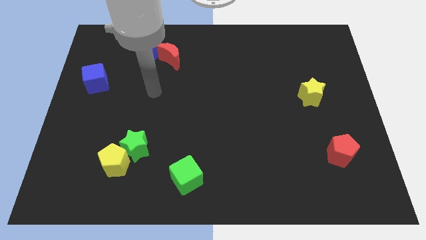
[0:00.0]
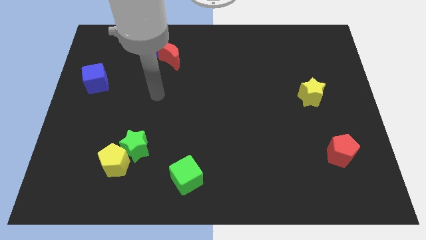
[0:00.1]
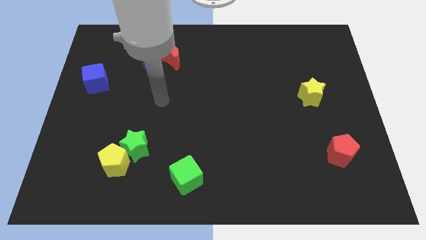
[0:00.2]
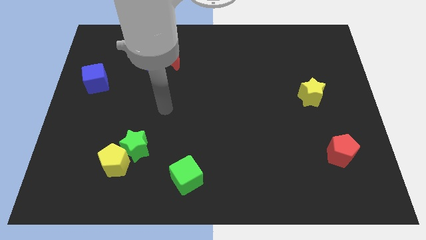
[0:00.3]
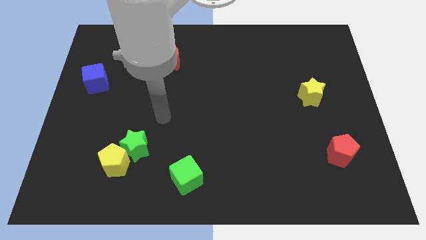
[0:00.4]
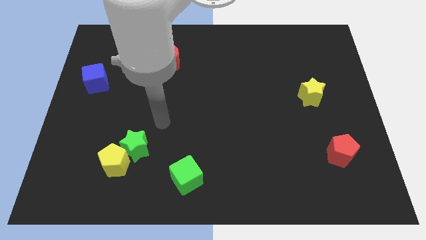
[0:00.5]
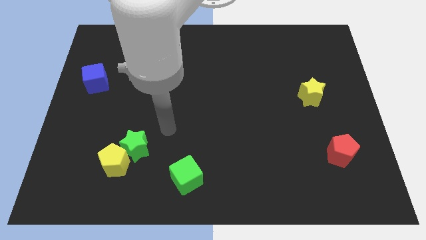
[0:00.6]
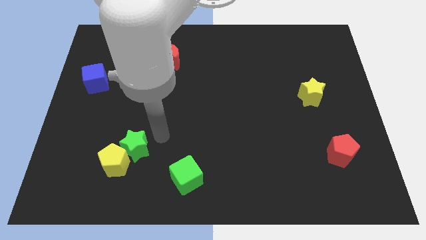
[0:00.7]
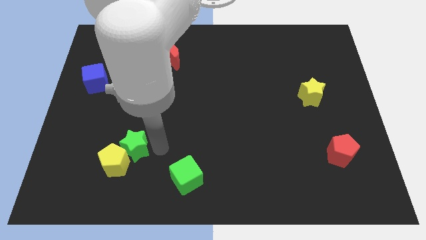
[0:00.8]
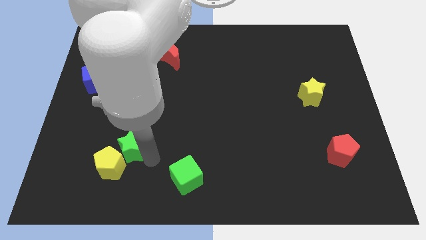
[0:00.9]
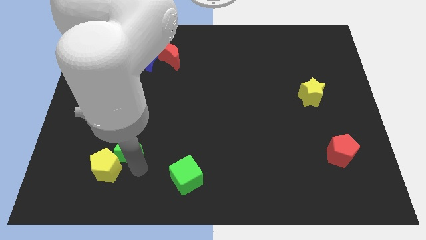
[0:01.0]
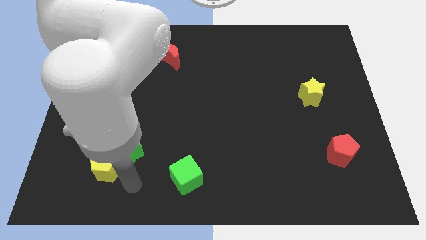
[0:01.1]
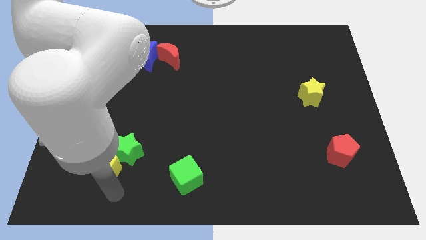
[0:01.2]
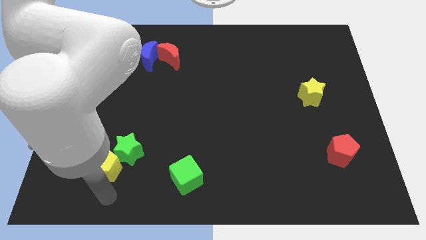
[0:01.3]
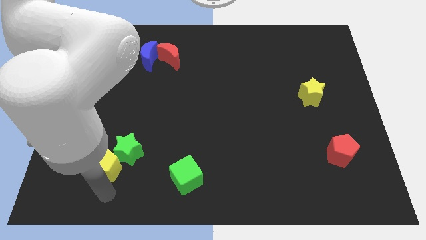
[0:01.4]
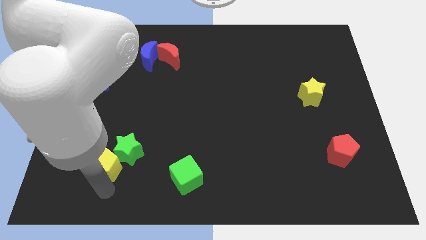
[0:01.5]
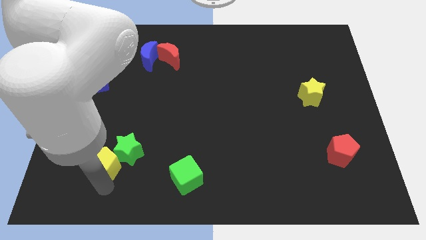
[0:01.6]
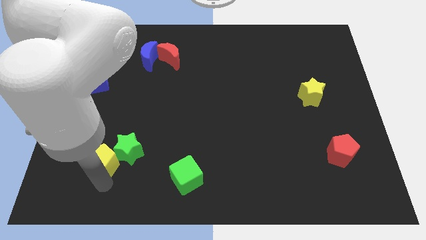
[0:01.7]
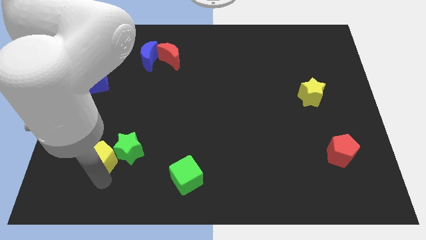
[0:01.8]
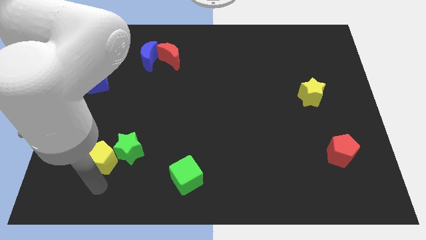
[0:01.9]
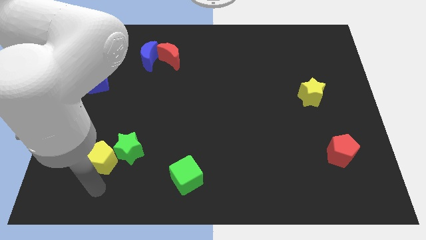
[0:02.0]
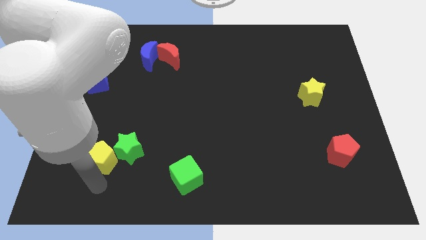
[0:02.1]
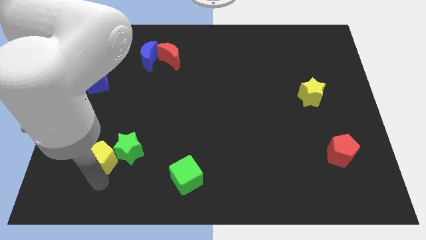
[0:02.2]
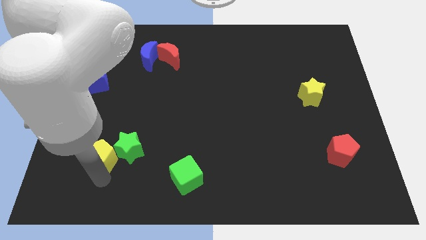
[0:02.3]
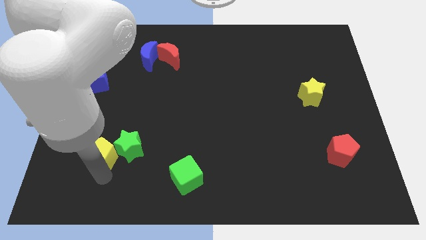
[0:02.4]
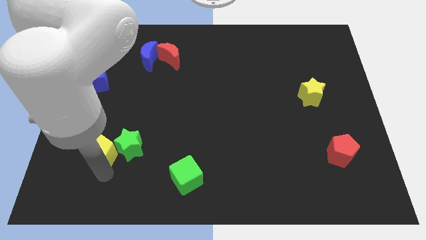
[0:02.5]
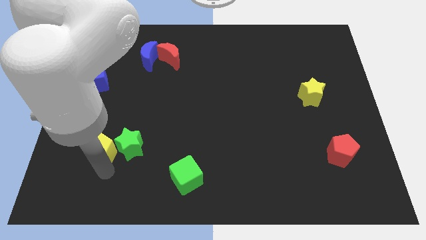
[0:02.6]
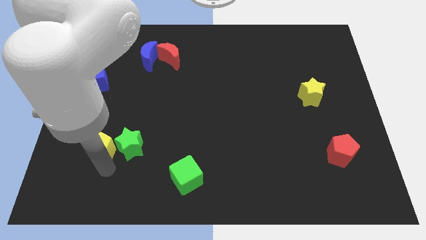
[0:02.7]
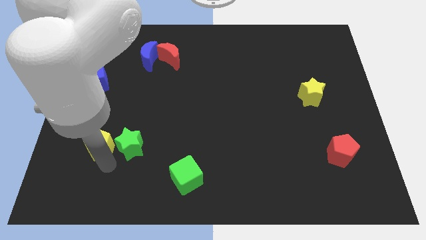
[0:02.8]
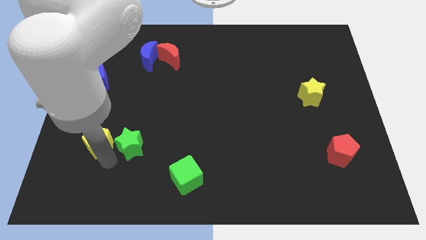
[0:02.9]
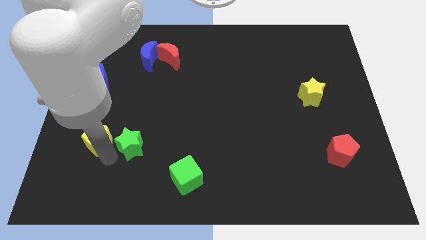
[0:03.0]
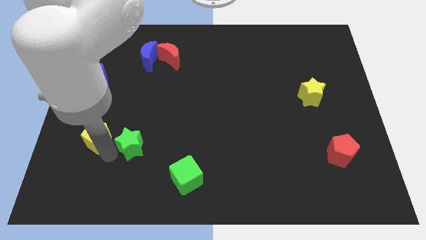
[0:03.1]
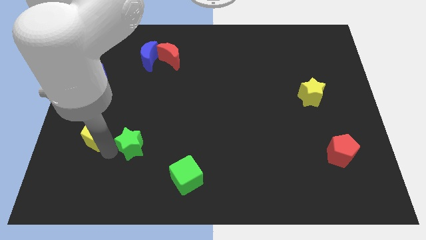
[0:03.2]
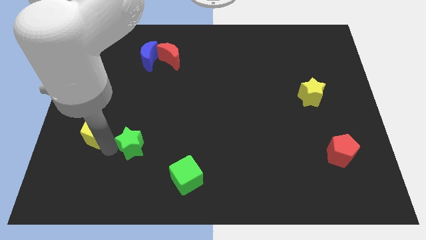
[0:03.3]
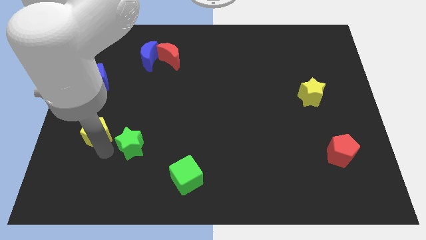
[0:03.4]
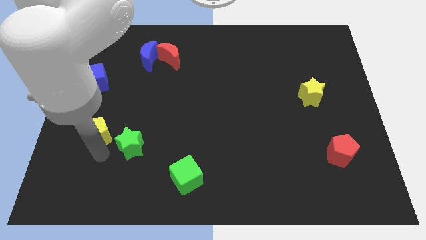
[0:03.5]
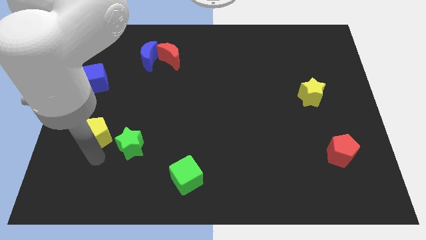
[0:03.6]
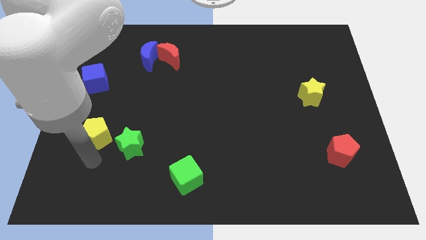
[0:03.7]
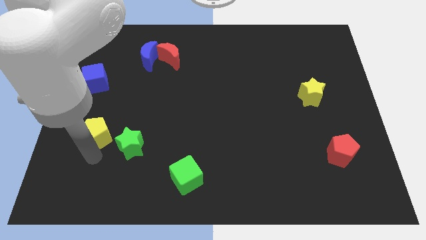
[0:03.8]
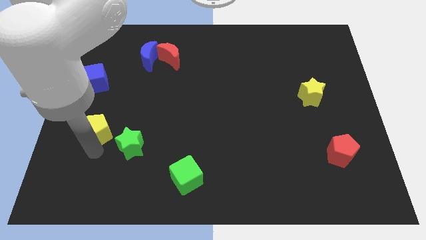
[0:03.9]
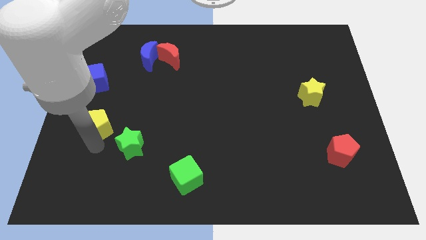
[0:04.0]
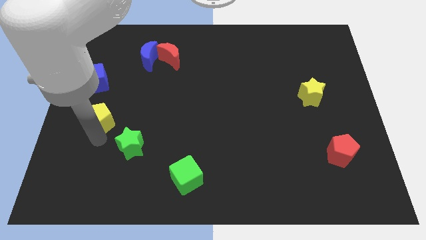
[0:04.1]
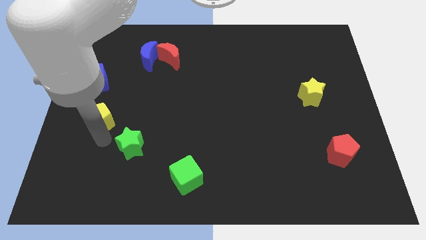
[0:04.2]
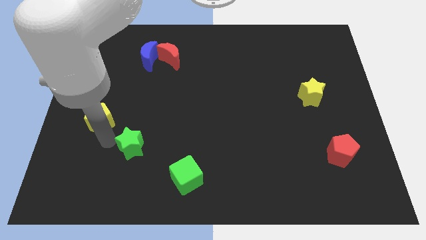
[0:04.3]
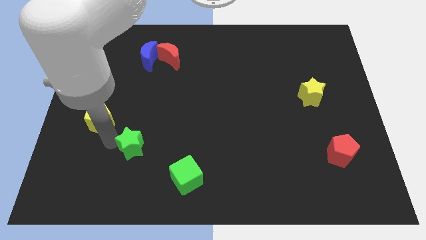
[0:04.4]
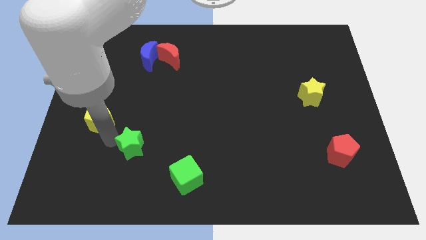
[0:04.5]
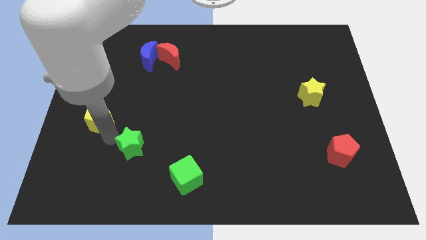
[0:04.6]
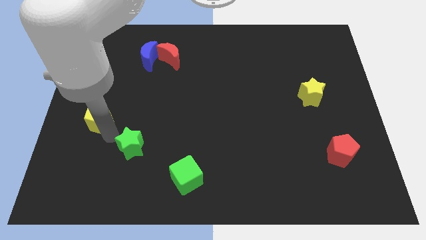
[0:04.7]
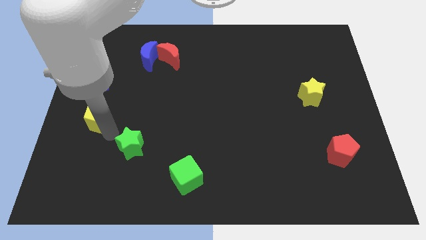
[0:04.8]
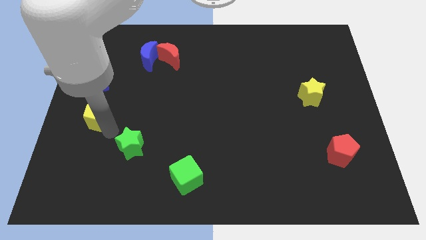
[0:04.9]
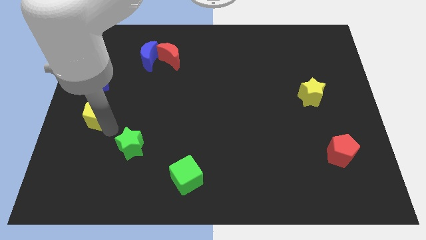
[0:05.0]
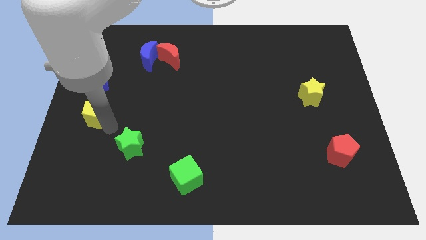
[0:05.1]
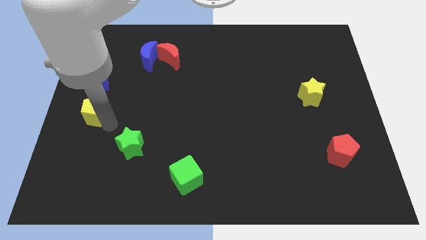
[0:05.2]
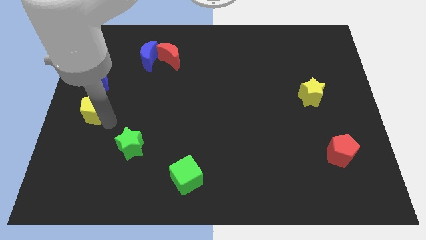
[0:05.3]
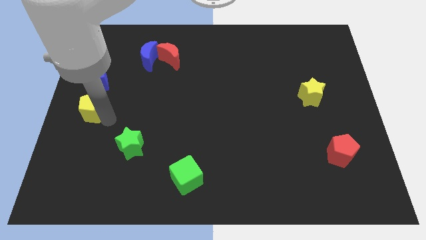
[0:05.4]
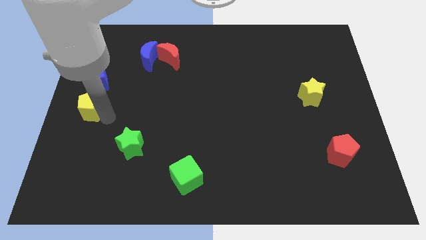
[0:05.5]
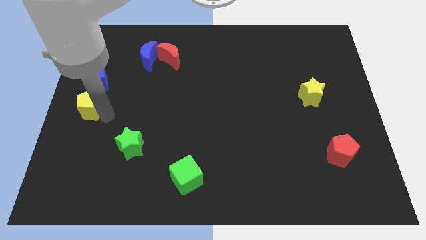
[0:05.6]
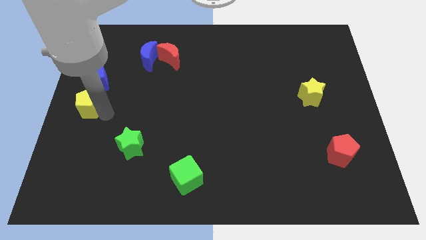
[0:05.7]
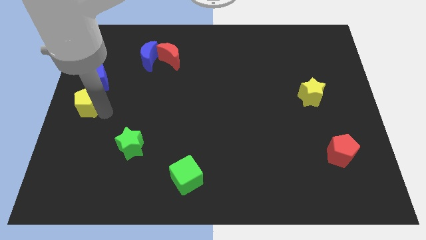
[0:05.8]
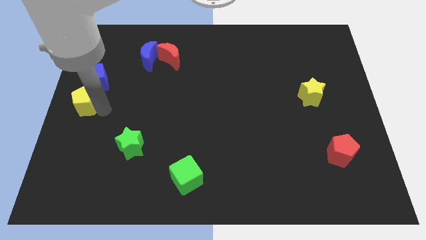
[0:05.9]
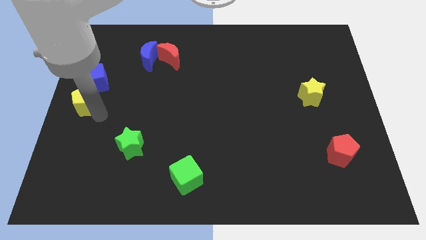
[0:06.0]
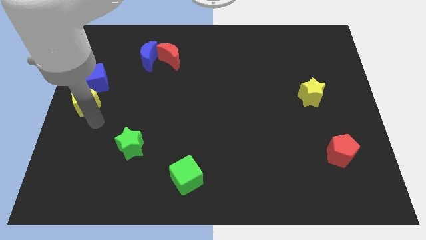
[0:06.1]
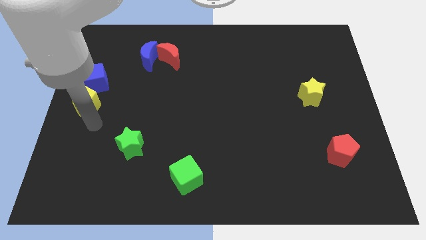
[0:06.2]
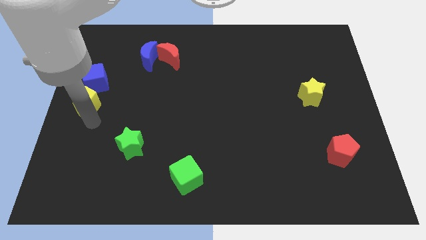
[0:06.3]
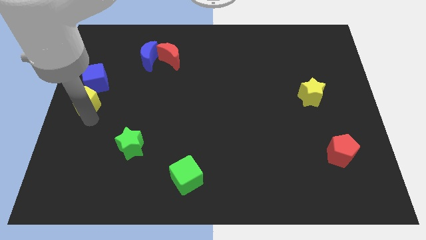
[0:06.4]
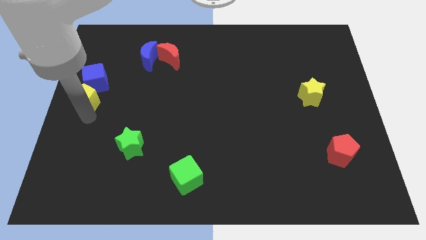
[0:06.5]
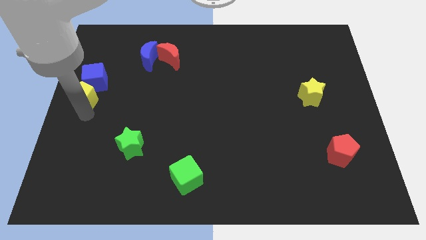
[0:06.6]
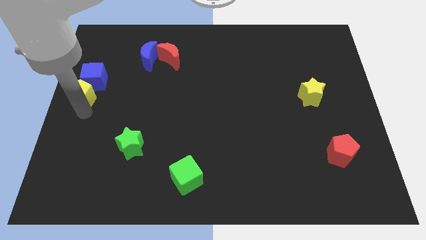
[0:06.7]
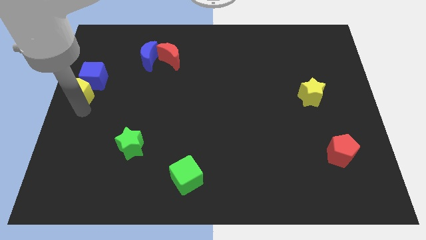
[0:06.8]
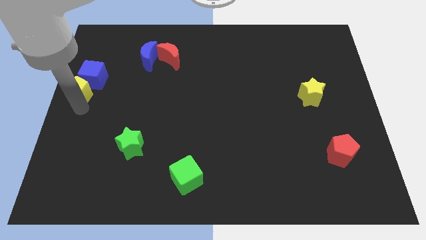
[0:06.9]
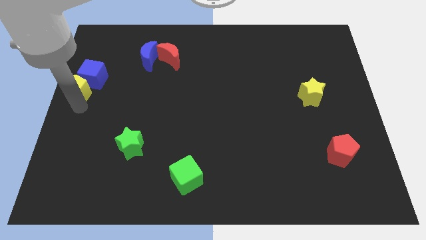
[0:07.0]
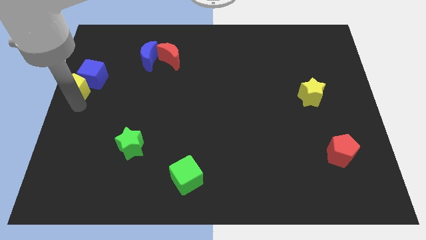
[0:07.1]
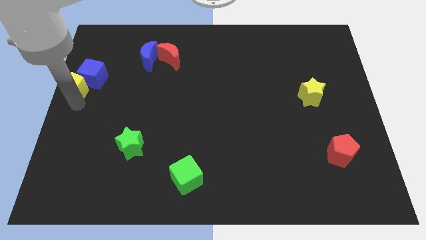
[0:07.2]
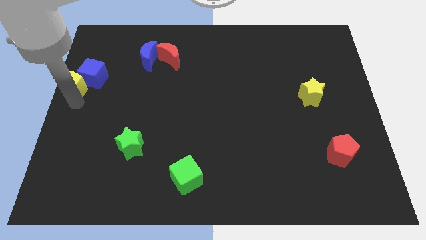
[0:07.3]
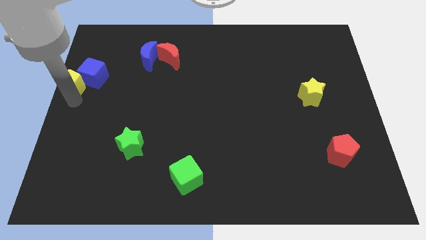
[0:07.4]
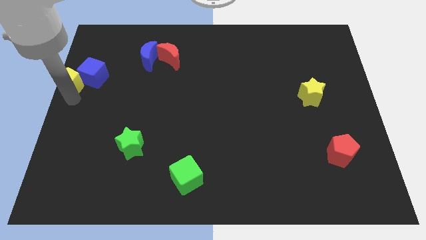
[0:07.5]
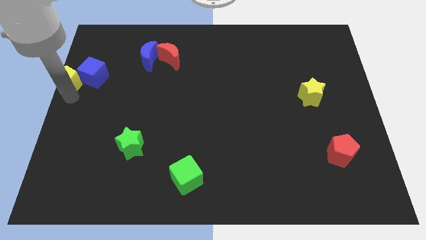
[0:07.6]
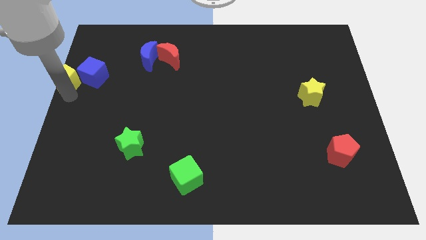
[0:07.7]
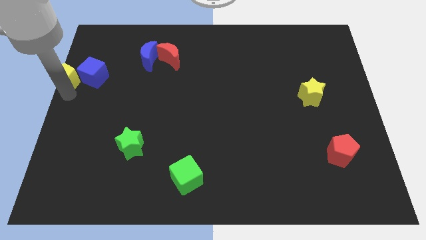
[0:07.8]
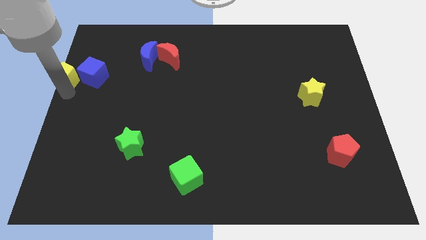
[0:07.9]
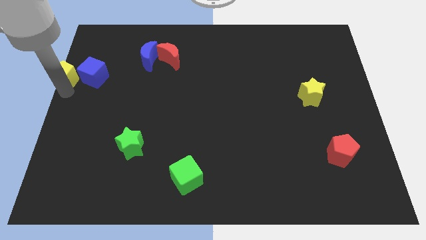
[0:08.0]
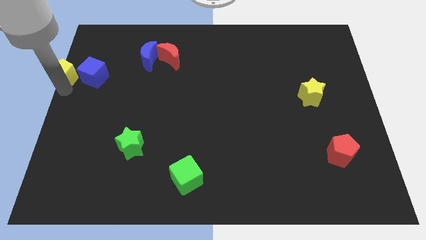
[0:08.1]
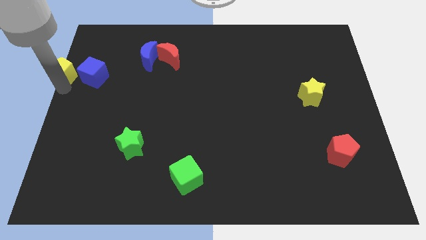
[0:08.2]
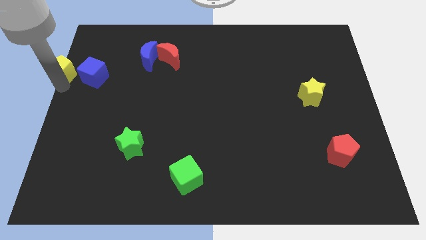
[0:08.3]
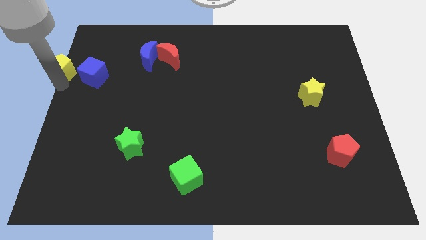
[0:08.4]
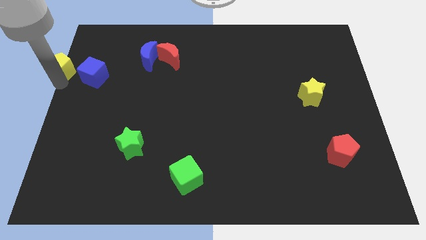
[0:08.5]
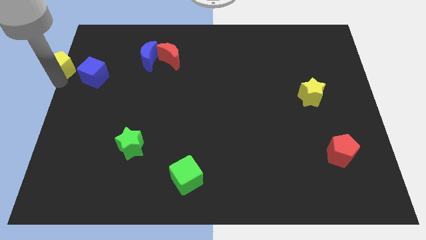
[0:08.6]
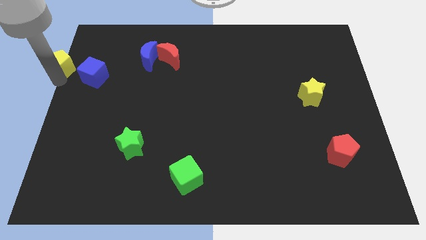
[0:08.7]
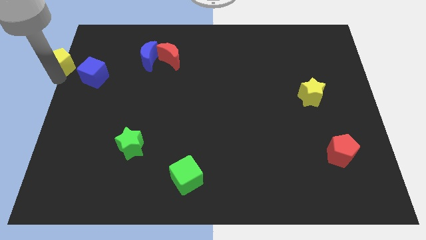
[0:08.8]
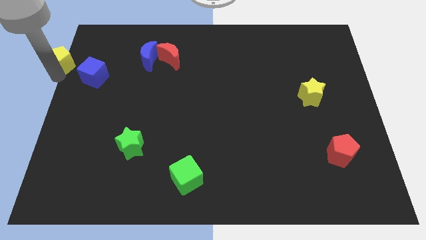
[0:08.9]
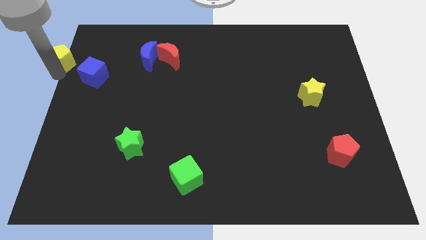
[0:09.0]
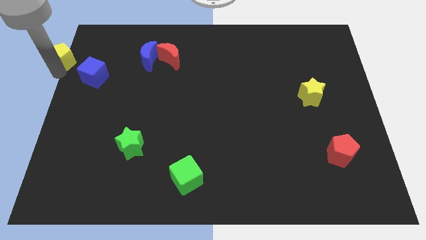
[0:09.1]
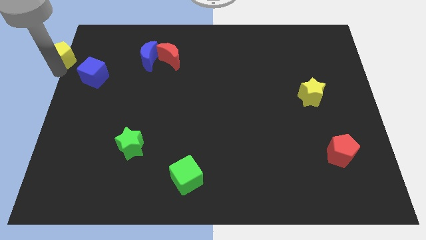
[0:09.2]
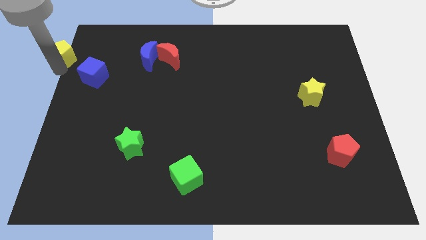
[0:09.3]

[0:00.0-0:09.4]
put the yellow pentagon to the top left corner
